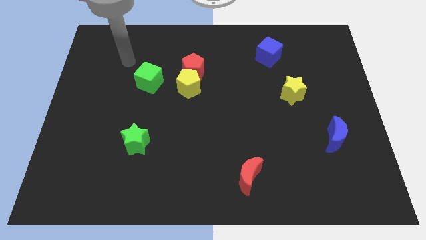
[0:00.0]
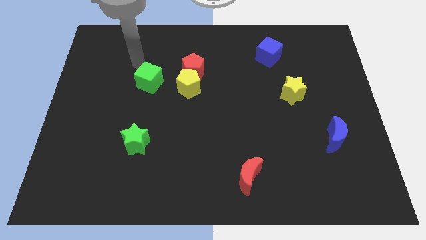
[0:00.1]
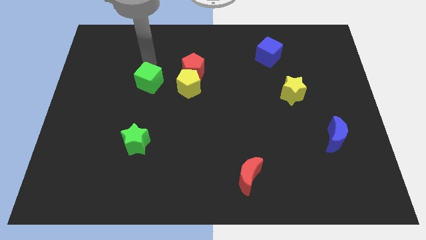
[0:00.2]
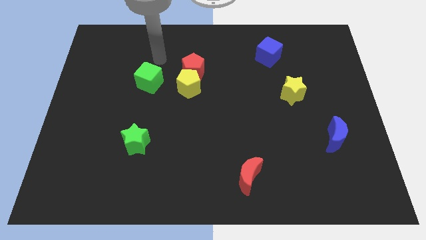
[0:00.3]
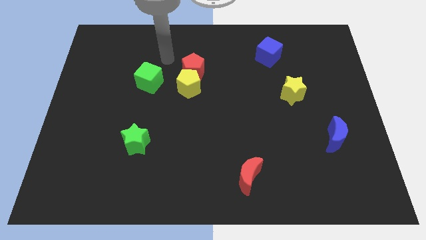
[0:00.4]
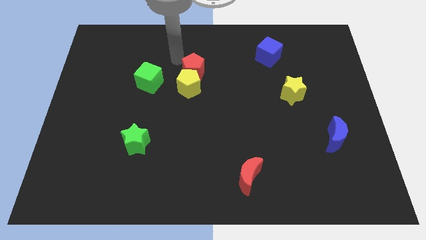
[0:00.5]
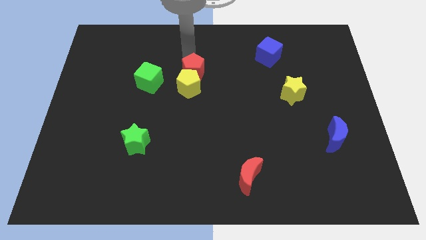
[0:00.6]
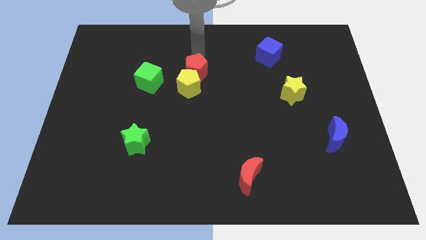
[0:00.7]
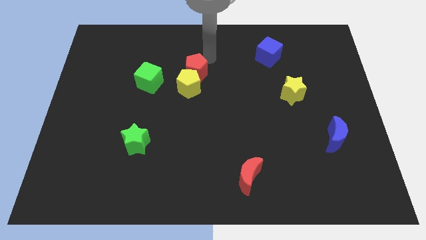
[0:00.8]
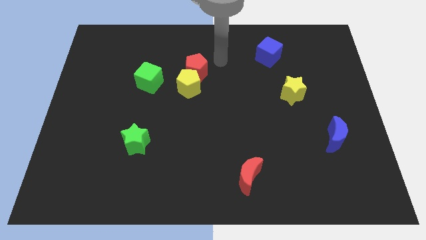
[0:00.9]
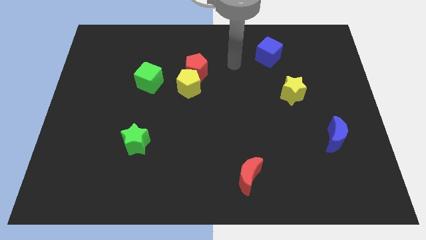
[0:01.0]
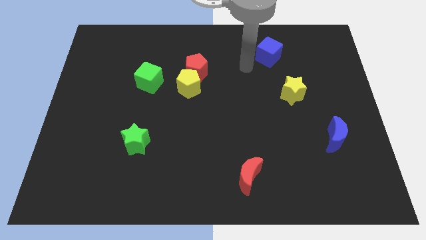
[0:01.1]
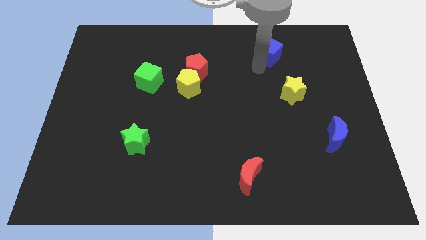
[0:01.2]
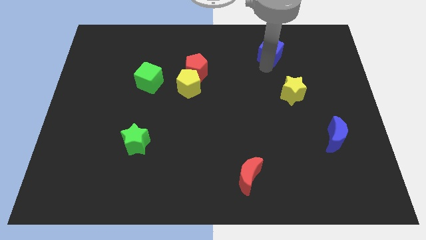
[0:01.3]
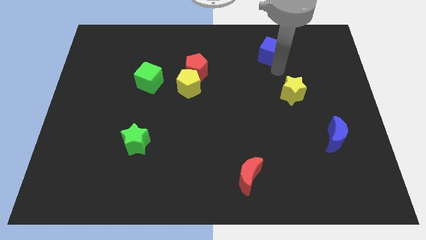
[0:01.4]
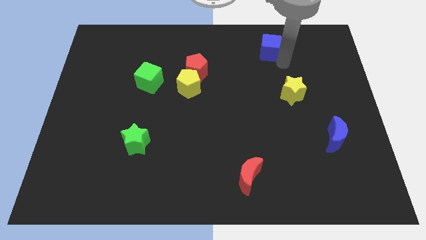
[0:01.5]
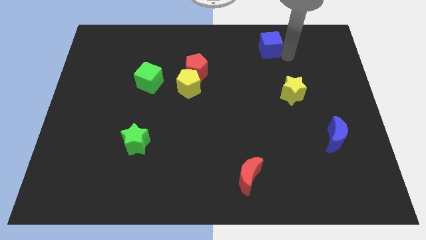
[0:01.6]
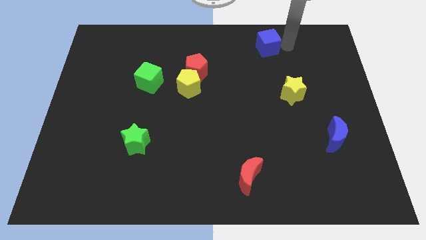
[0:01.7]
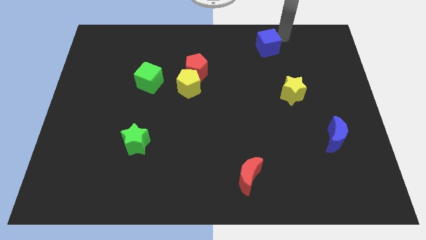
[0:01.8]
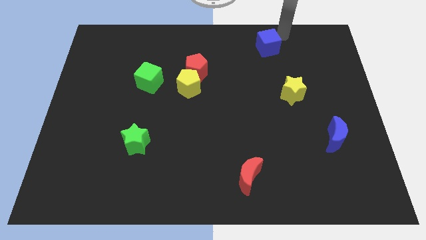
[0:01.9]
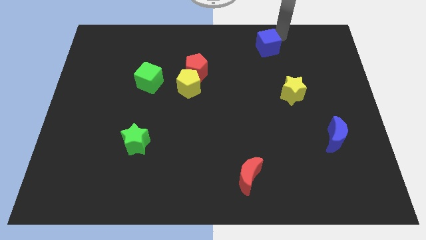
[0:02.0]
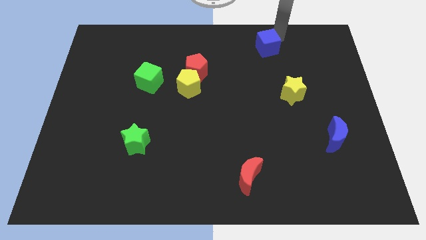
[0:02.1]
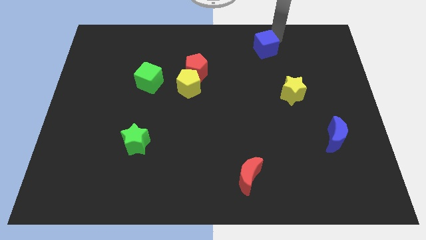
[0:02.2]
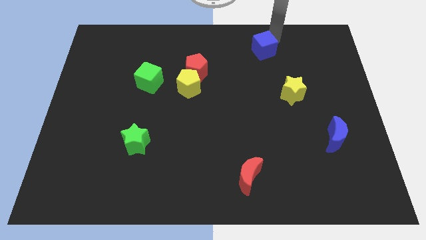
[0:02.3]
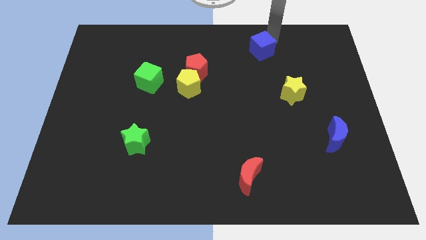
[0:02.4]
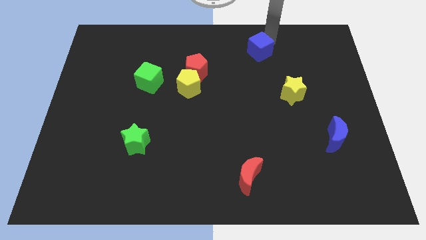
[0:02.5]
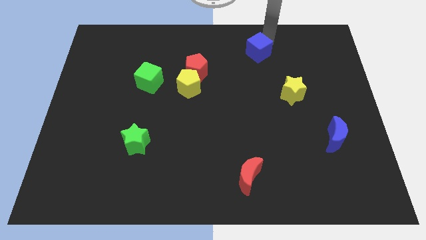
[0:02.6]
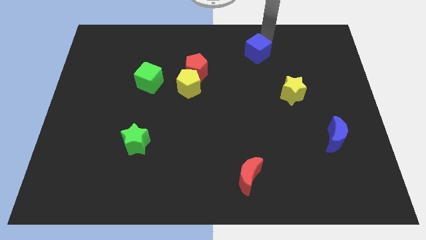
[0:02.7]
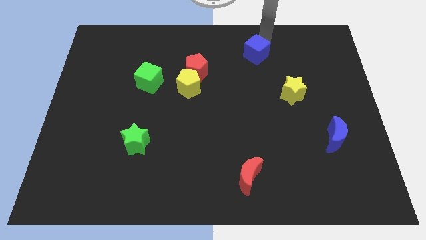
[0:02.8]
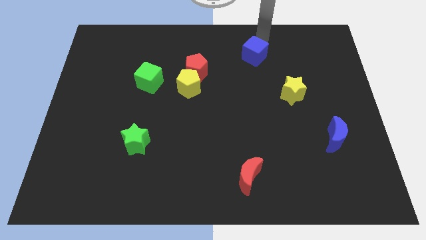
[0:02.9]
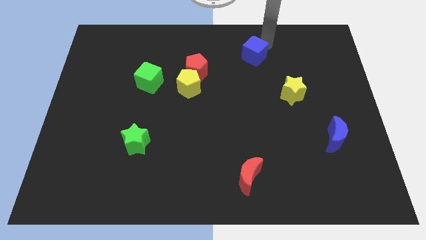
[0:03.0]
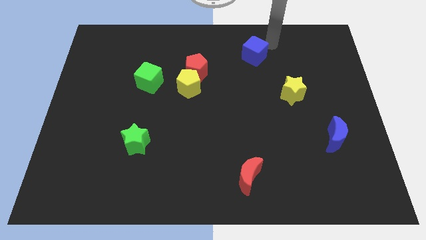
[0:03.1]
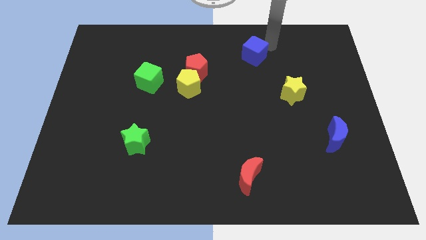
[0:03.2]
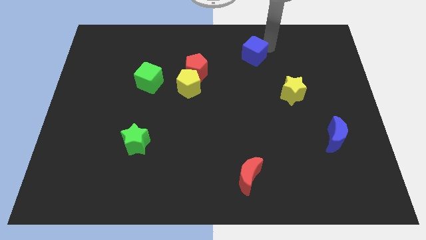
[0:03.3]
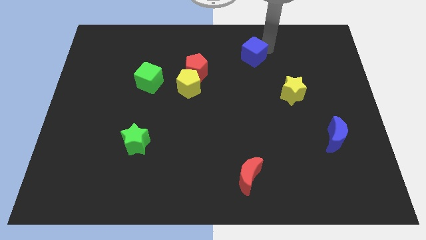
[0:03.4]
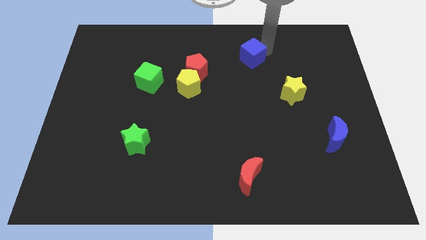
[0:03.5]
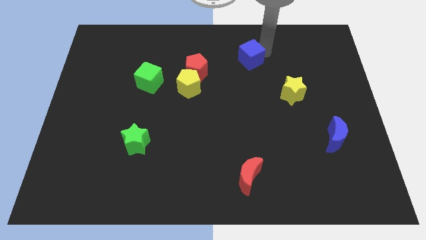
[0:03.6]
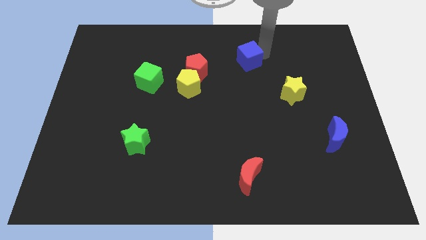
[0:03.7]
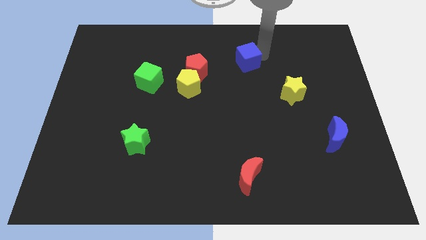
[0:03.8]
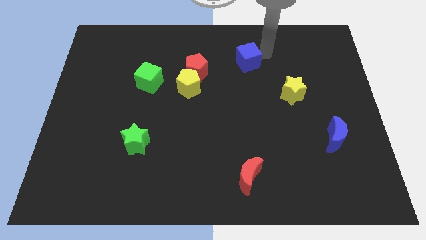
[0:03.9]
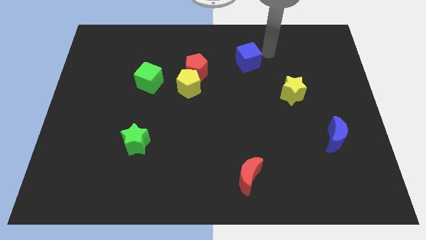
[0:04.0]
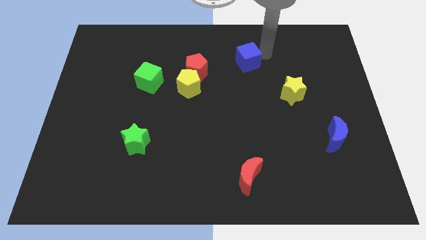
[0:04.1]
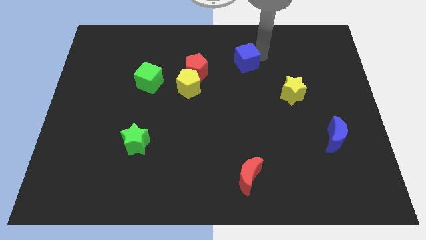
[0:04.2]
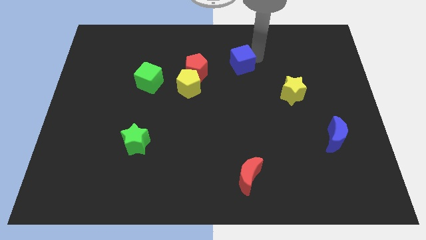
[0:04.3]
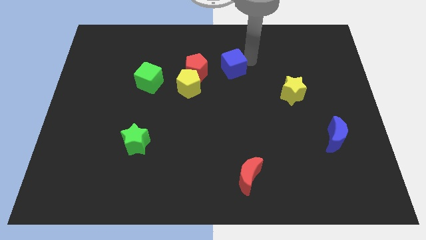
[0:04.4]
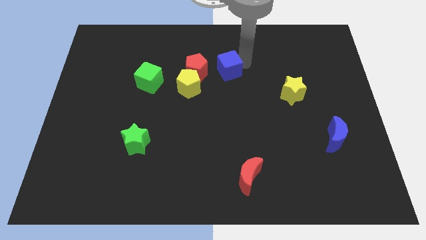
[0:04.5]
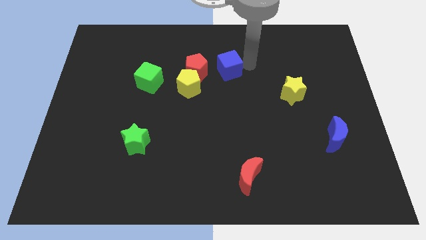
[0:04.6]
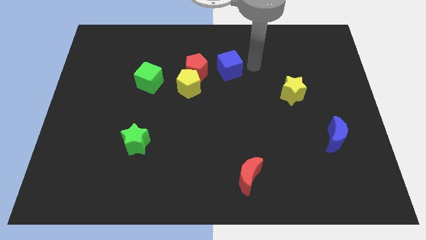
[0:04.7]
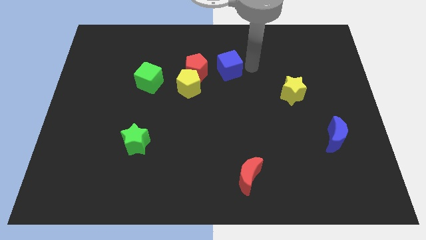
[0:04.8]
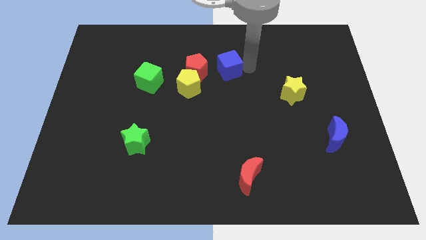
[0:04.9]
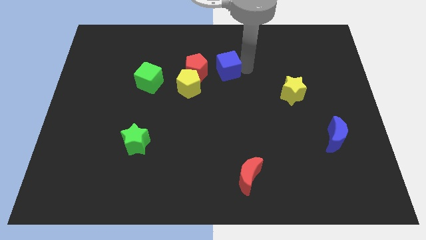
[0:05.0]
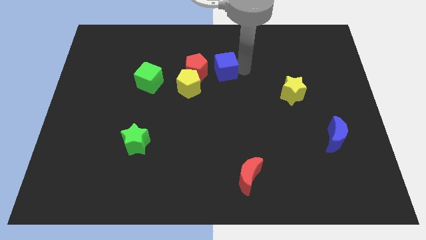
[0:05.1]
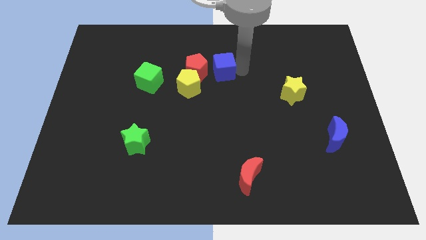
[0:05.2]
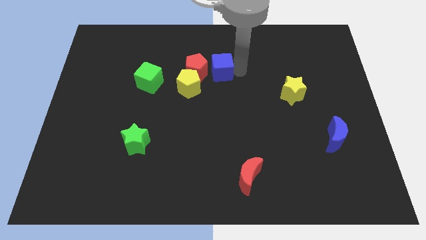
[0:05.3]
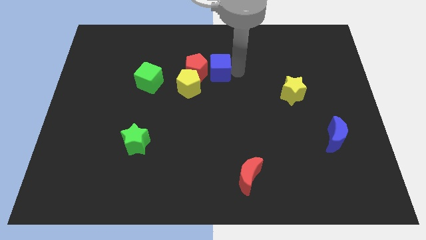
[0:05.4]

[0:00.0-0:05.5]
move the blue cube close to the red pentagon

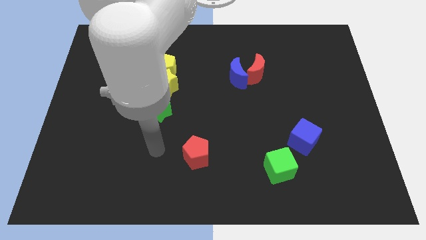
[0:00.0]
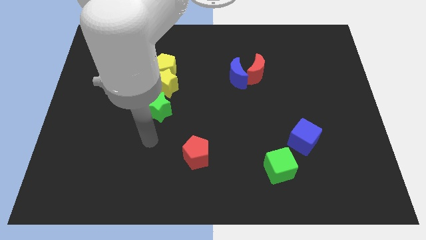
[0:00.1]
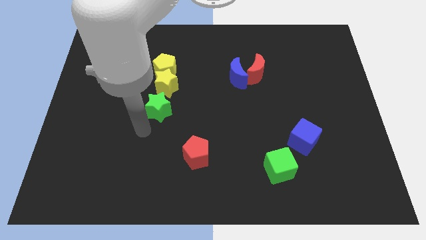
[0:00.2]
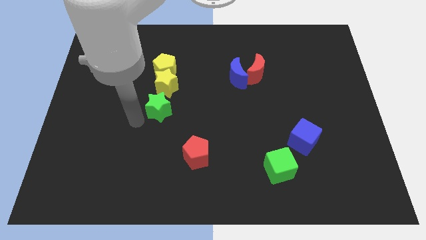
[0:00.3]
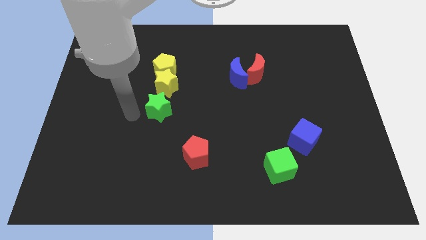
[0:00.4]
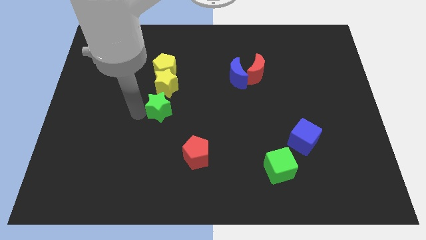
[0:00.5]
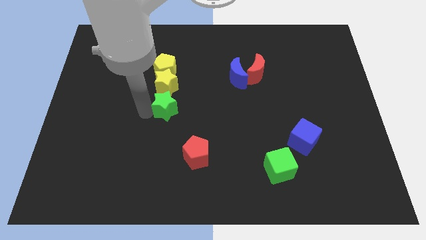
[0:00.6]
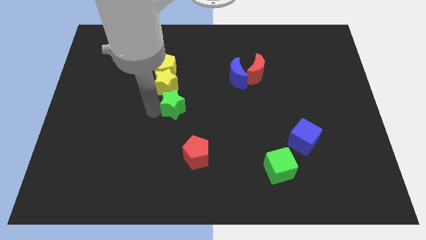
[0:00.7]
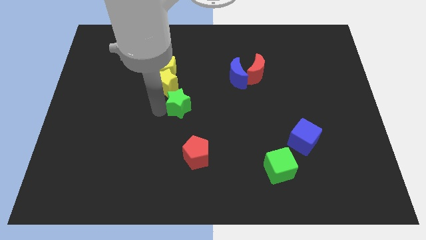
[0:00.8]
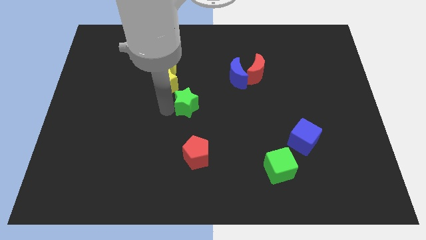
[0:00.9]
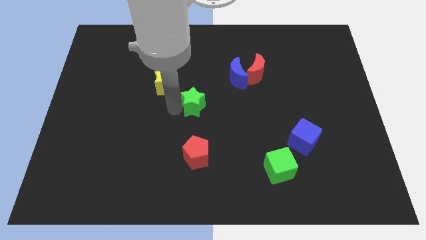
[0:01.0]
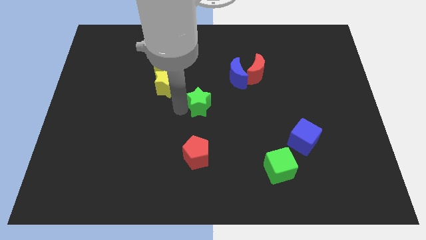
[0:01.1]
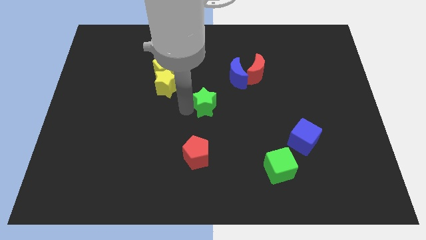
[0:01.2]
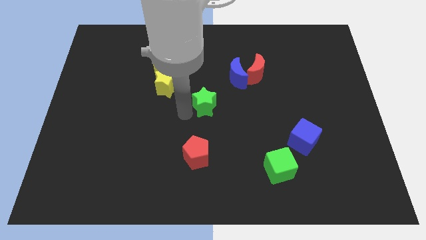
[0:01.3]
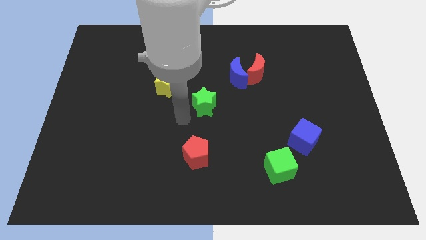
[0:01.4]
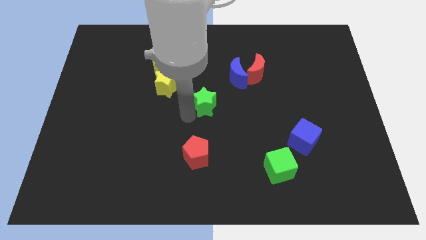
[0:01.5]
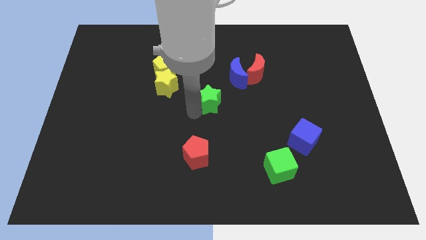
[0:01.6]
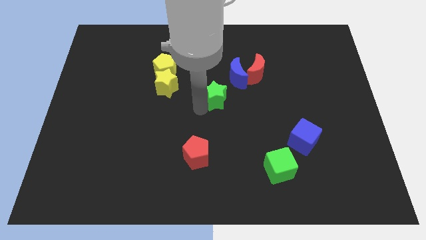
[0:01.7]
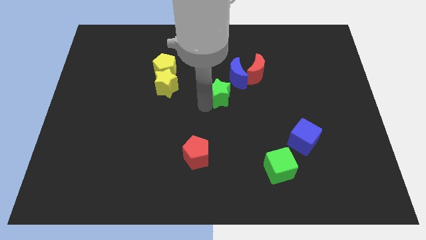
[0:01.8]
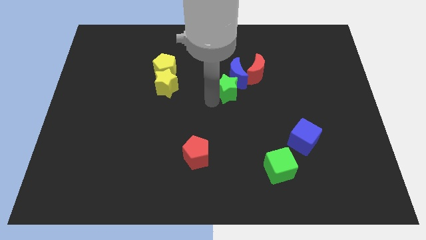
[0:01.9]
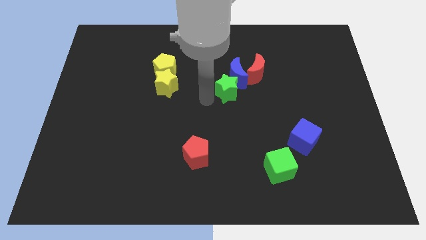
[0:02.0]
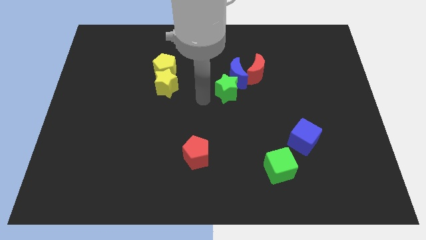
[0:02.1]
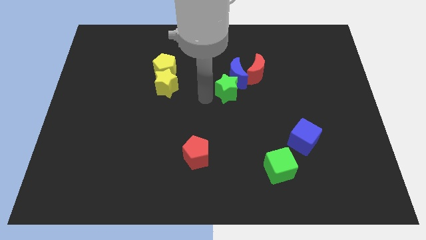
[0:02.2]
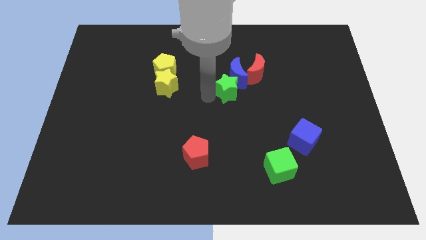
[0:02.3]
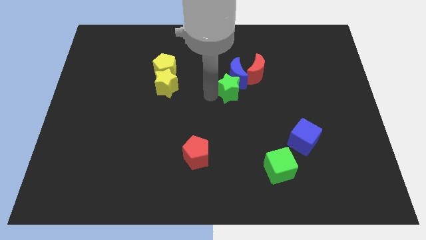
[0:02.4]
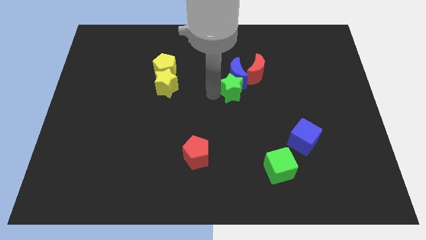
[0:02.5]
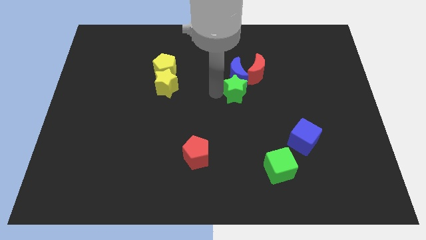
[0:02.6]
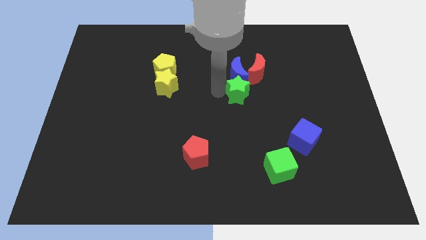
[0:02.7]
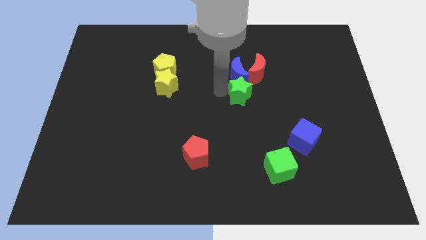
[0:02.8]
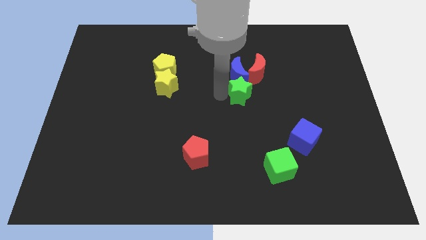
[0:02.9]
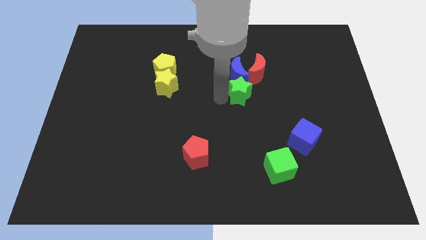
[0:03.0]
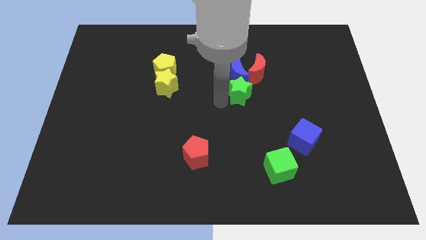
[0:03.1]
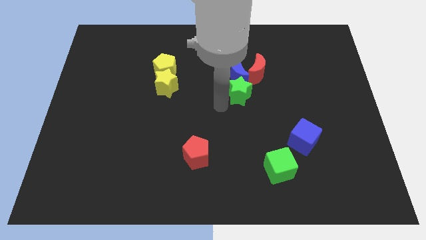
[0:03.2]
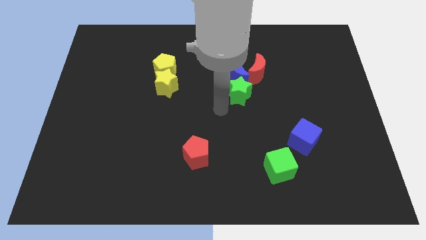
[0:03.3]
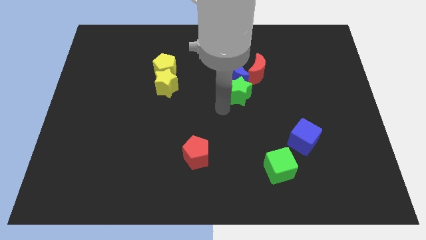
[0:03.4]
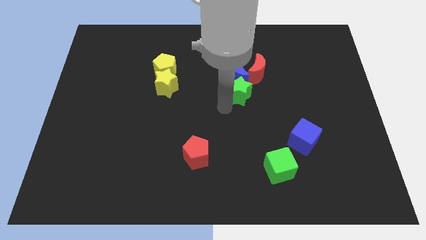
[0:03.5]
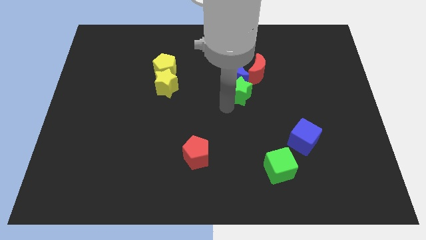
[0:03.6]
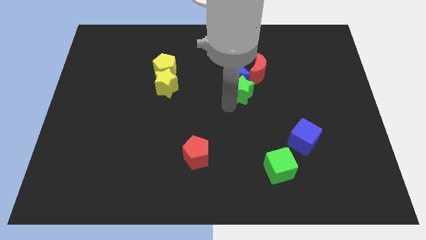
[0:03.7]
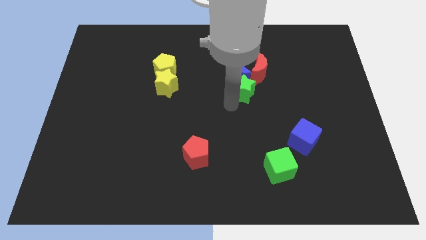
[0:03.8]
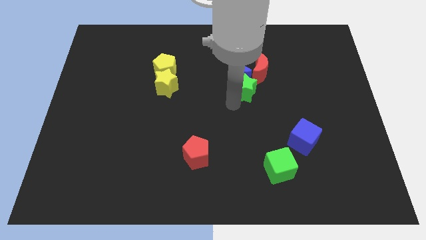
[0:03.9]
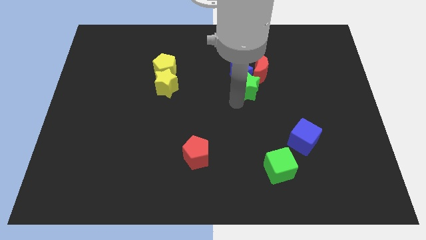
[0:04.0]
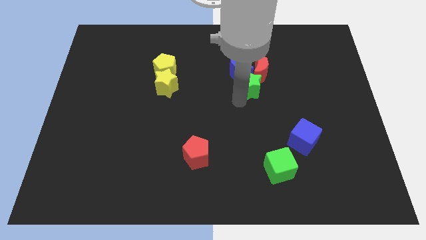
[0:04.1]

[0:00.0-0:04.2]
put the green star close to the red moon
